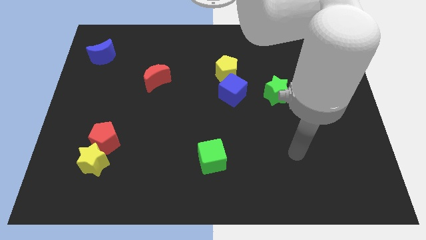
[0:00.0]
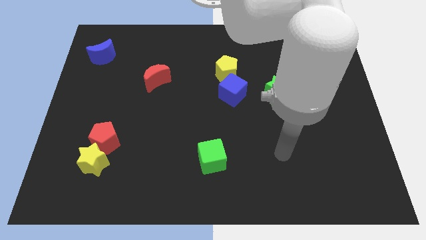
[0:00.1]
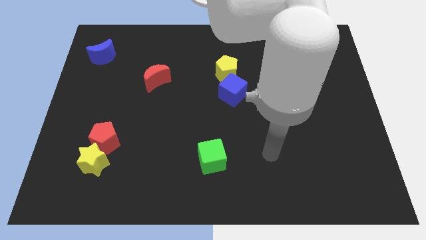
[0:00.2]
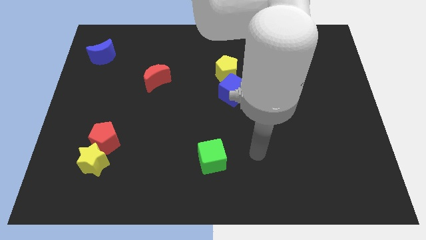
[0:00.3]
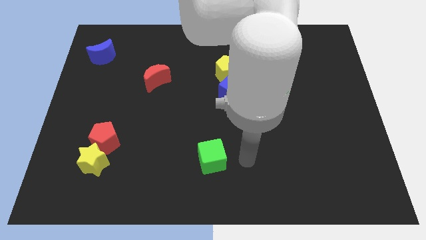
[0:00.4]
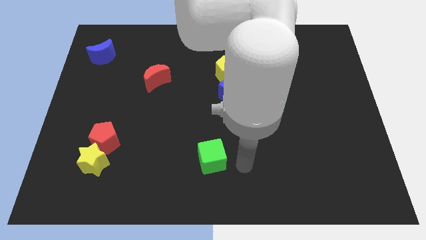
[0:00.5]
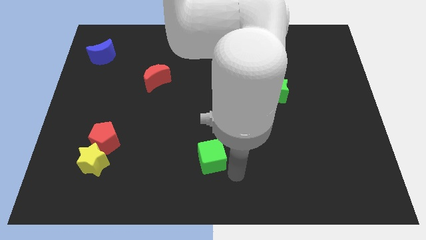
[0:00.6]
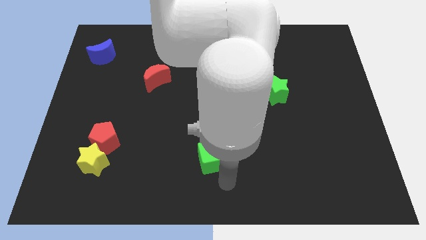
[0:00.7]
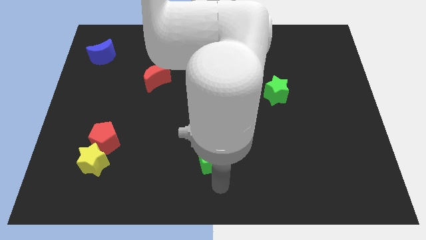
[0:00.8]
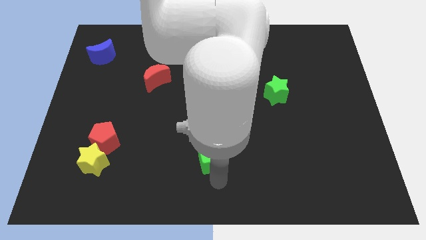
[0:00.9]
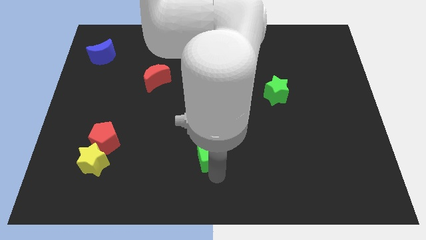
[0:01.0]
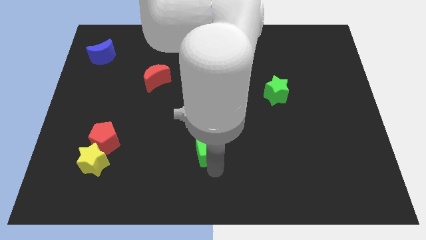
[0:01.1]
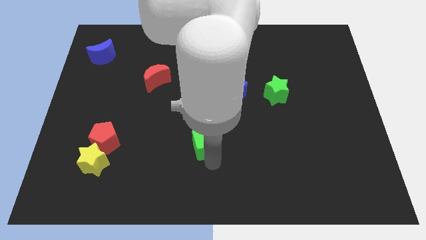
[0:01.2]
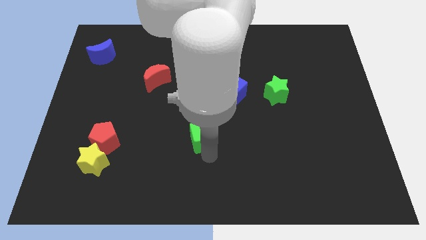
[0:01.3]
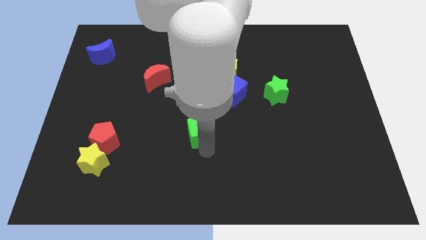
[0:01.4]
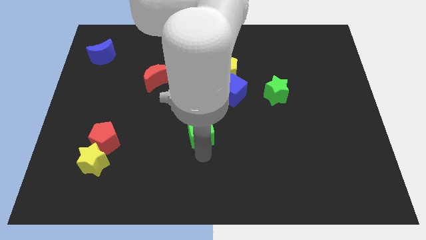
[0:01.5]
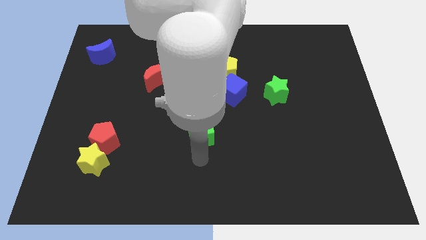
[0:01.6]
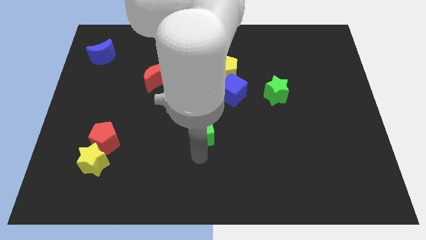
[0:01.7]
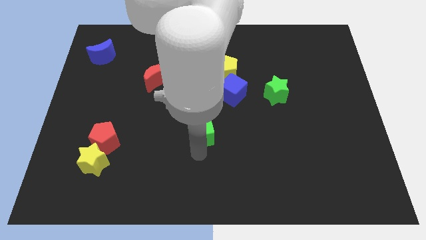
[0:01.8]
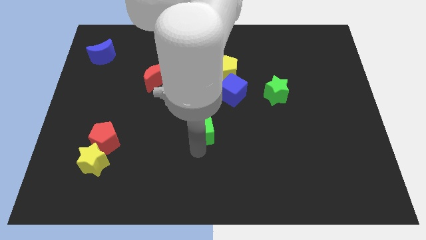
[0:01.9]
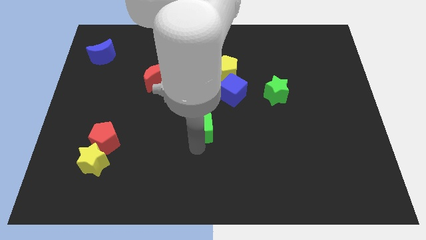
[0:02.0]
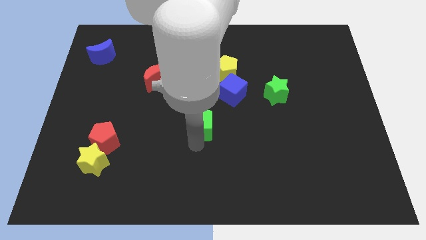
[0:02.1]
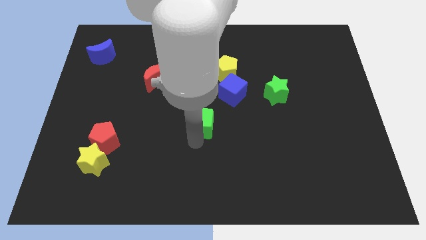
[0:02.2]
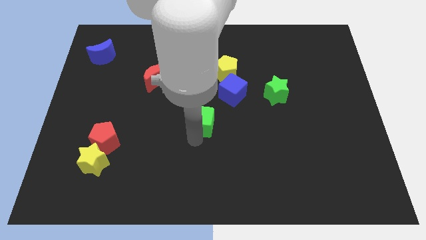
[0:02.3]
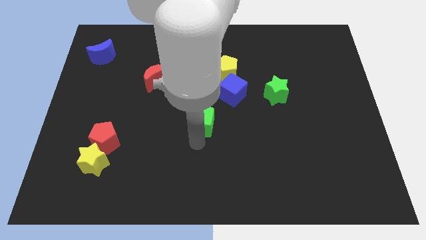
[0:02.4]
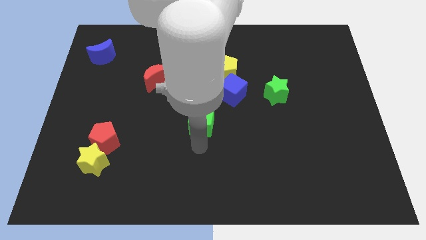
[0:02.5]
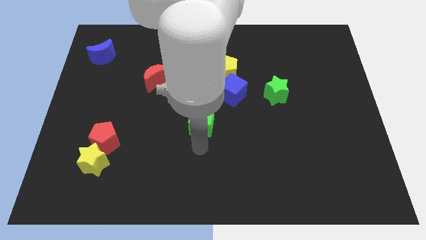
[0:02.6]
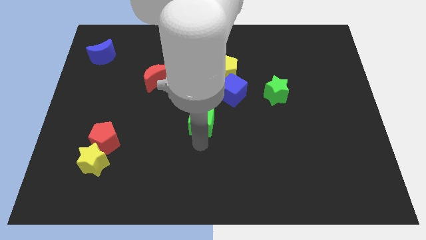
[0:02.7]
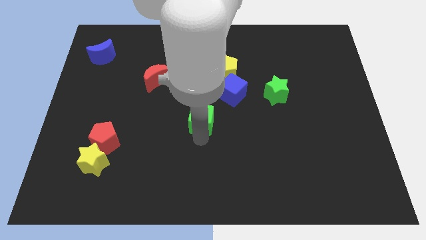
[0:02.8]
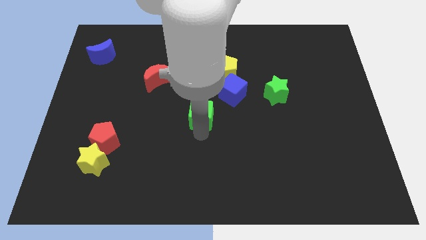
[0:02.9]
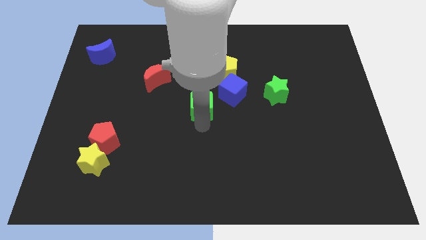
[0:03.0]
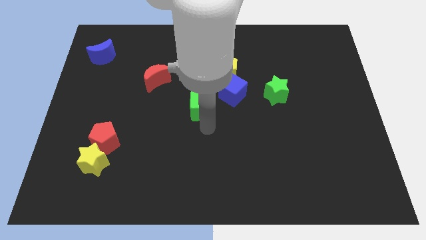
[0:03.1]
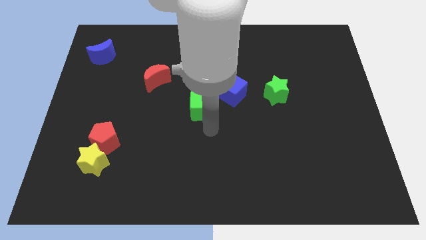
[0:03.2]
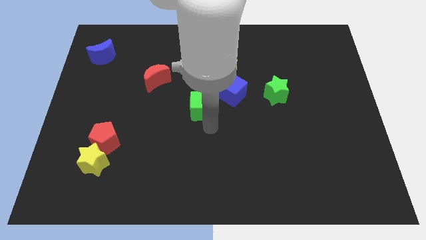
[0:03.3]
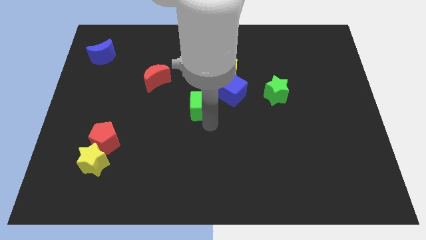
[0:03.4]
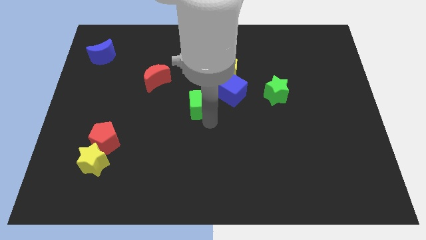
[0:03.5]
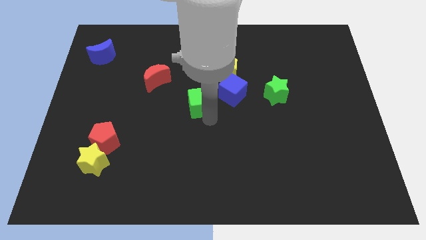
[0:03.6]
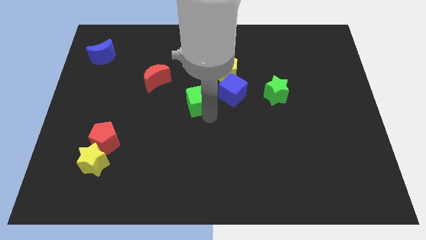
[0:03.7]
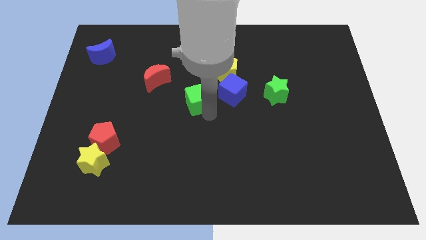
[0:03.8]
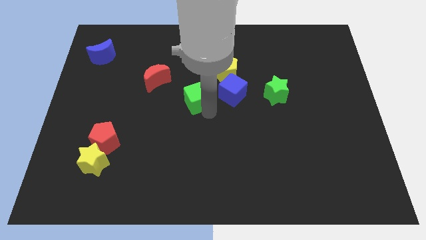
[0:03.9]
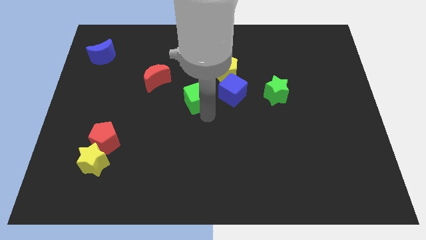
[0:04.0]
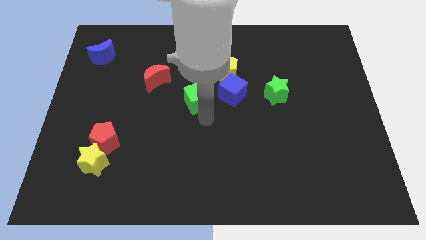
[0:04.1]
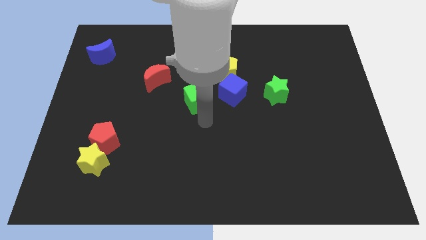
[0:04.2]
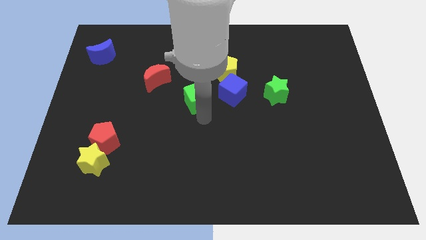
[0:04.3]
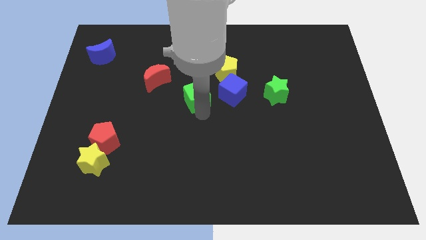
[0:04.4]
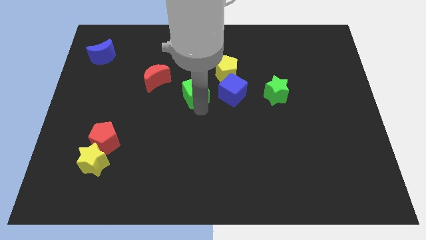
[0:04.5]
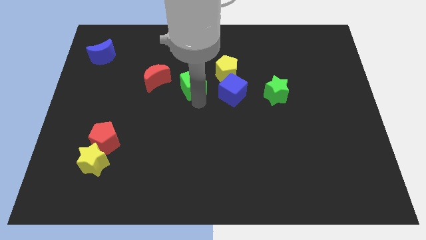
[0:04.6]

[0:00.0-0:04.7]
push the green cube to the left of the yellow pentagon

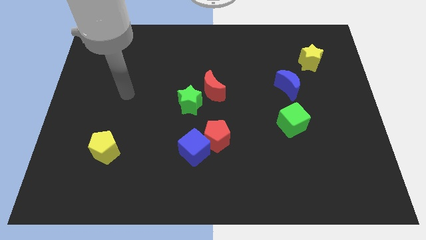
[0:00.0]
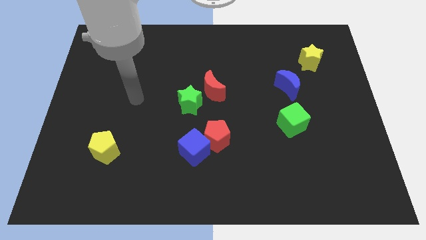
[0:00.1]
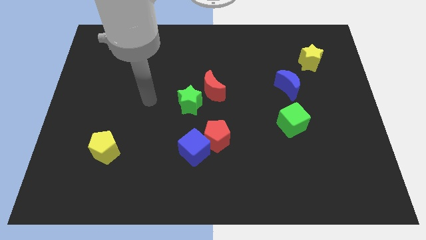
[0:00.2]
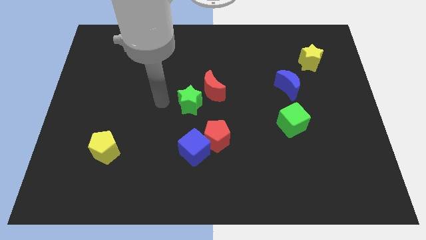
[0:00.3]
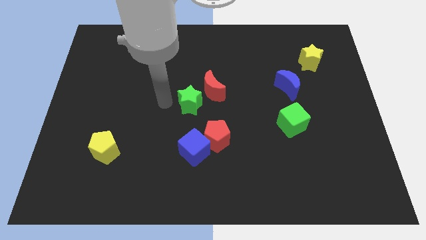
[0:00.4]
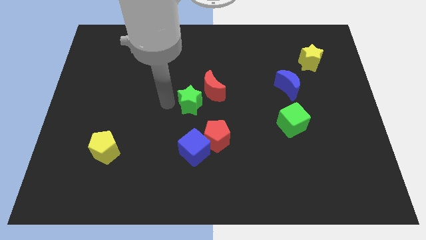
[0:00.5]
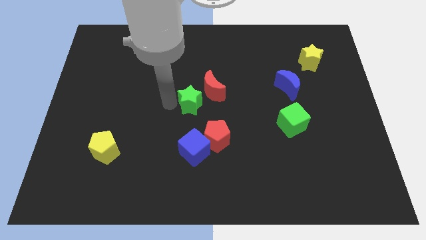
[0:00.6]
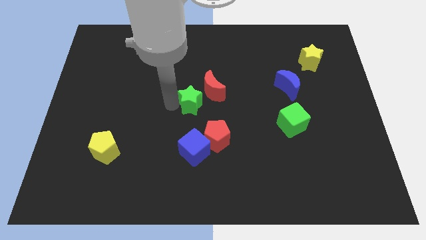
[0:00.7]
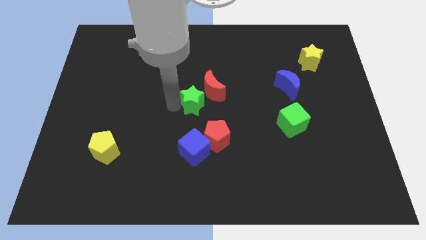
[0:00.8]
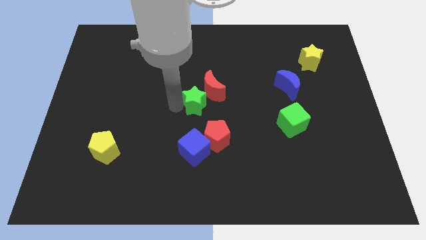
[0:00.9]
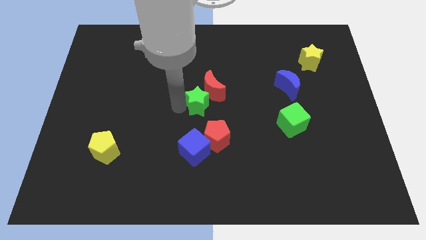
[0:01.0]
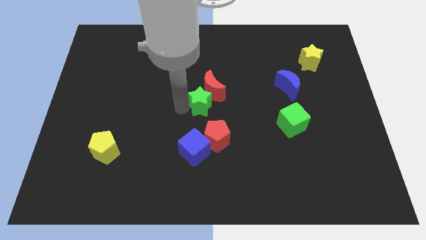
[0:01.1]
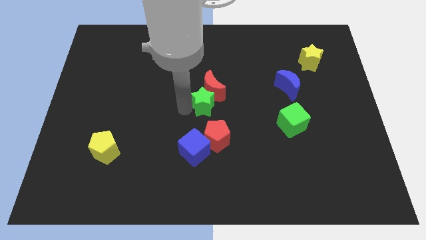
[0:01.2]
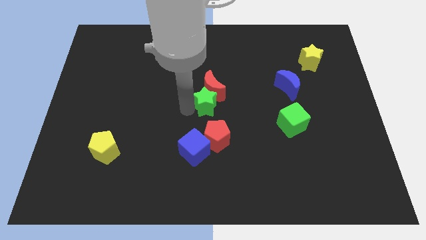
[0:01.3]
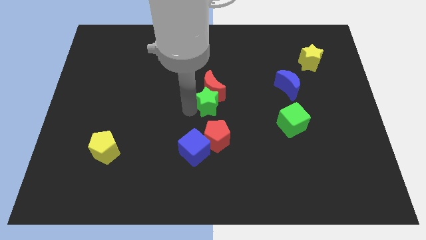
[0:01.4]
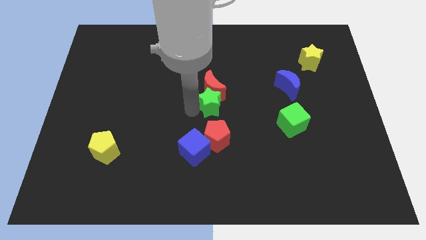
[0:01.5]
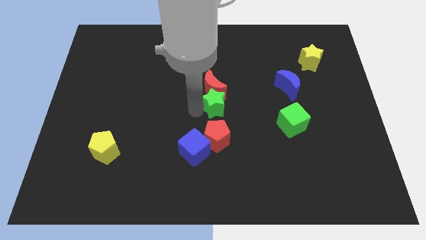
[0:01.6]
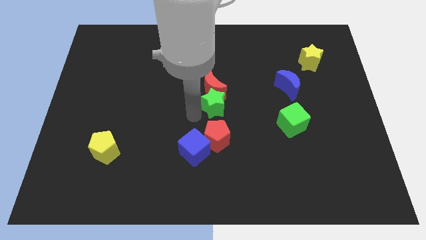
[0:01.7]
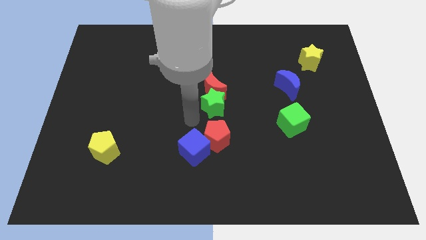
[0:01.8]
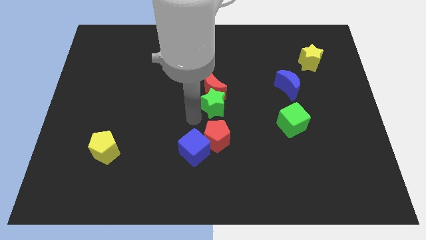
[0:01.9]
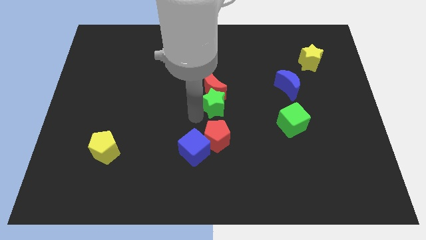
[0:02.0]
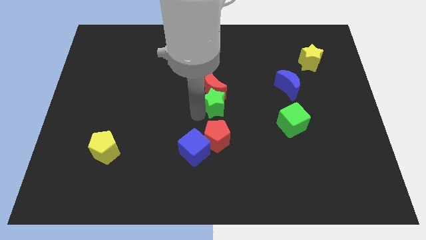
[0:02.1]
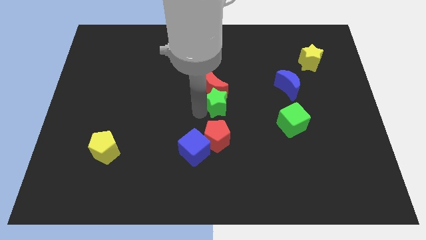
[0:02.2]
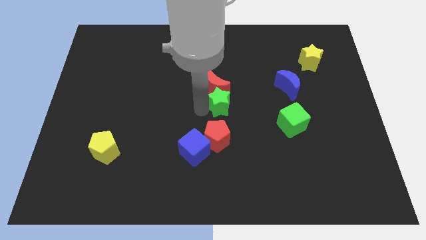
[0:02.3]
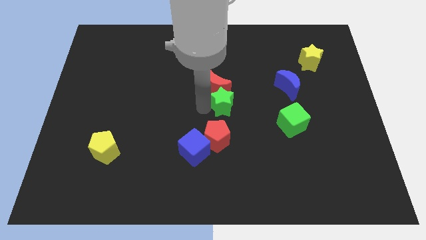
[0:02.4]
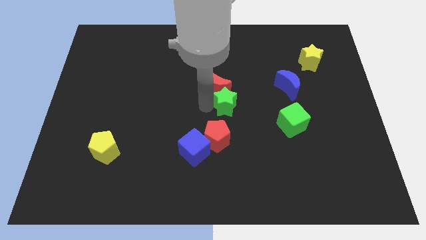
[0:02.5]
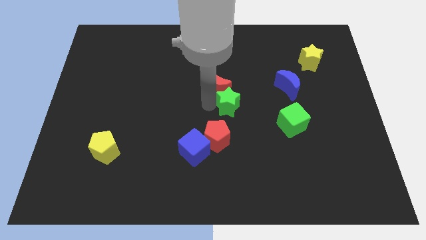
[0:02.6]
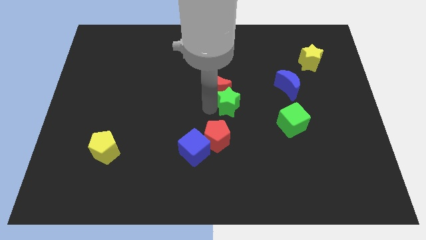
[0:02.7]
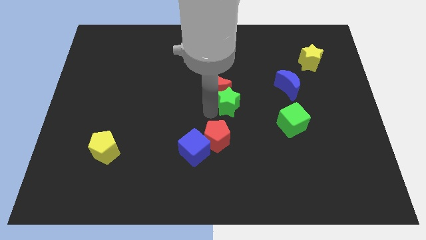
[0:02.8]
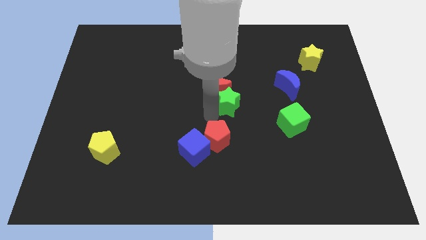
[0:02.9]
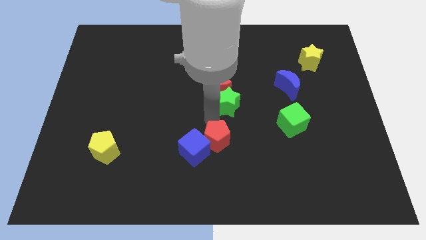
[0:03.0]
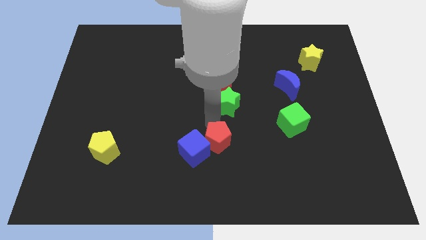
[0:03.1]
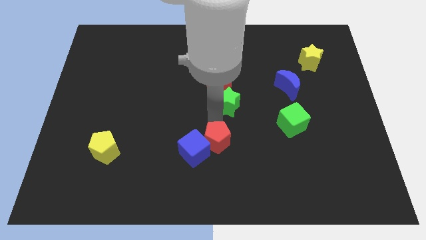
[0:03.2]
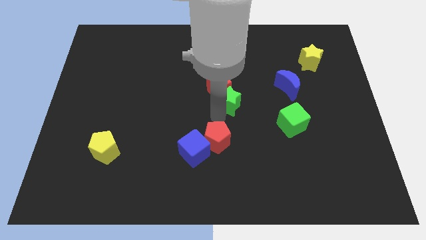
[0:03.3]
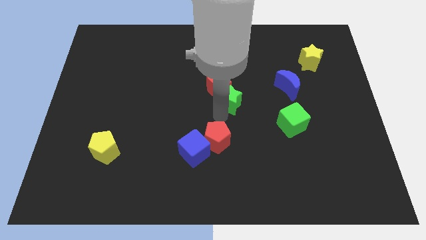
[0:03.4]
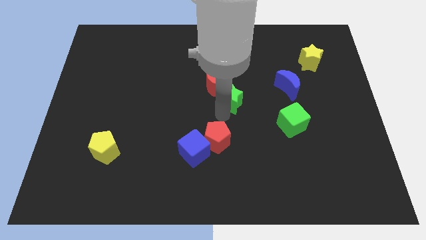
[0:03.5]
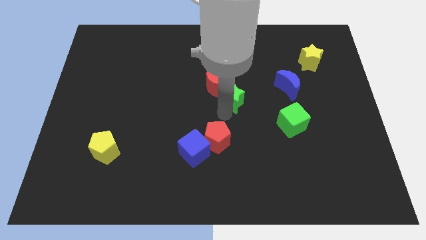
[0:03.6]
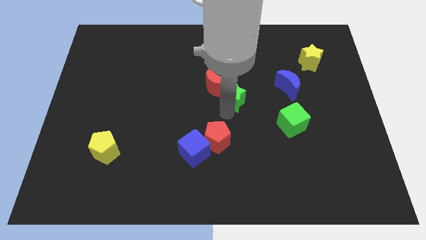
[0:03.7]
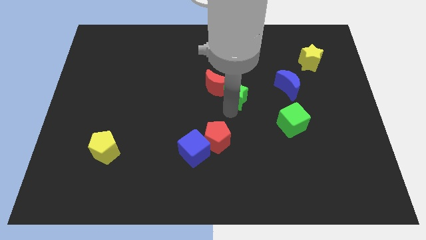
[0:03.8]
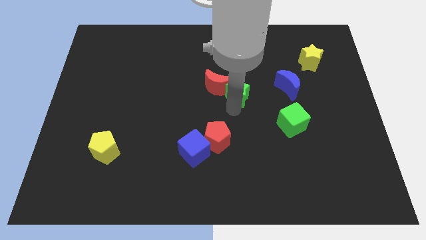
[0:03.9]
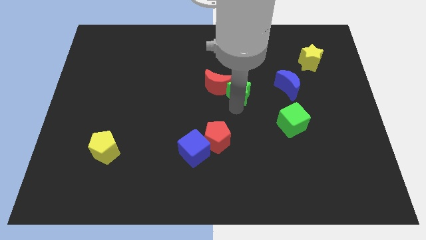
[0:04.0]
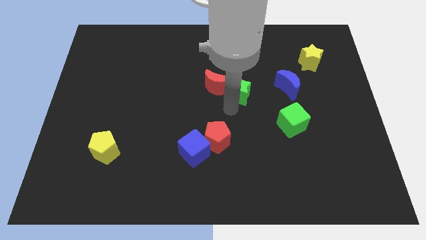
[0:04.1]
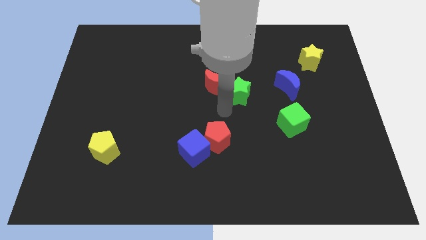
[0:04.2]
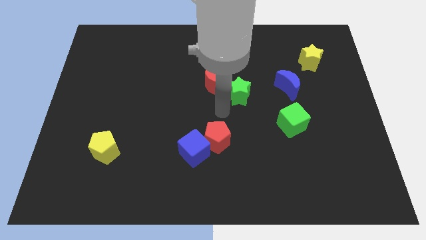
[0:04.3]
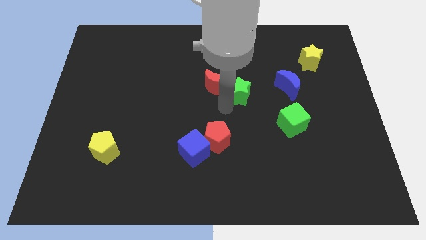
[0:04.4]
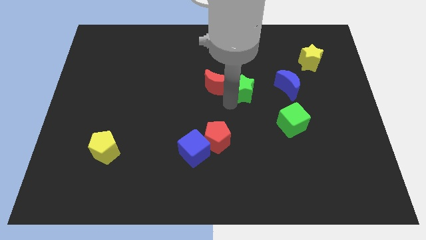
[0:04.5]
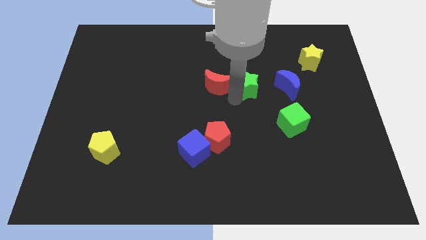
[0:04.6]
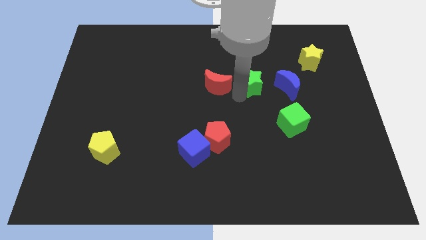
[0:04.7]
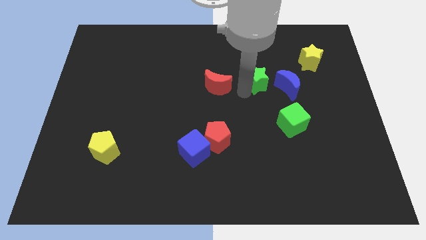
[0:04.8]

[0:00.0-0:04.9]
slide the green star diagonally up and to the left of the blue moon
